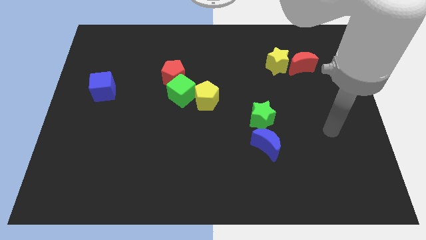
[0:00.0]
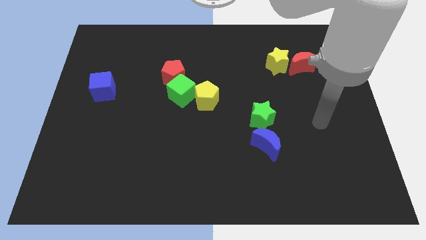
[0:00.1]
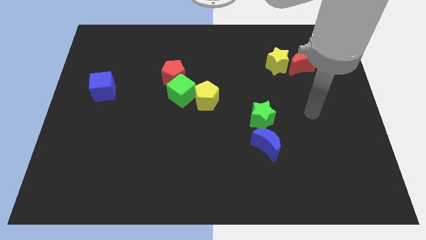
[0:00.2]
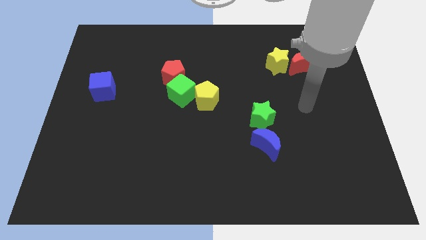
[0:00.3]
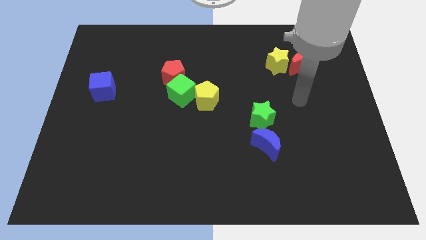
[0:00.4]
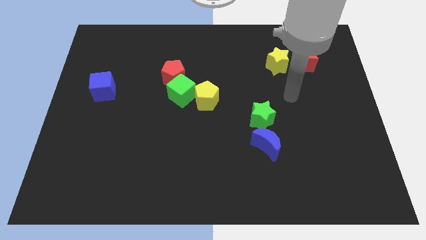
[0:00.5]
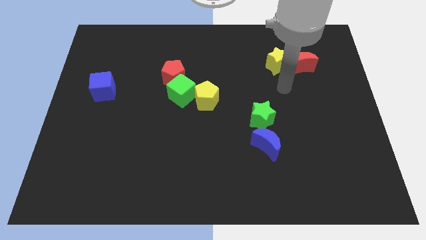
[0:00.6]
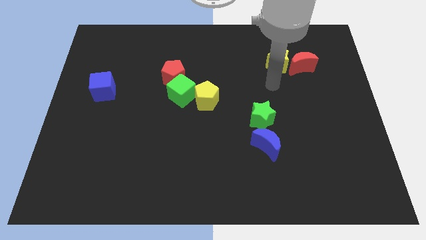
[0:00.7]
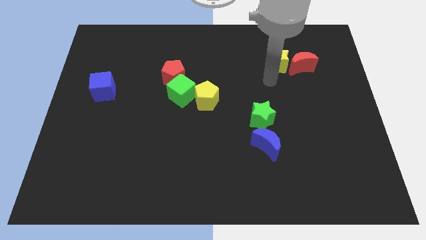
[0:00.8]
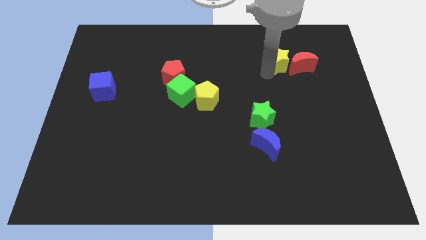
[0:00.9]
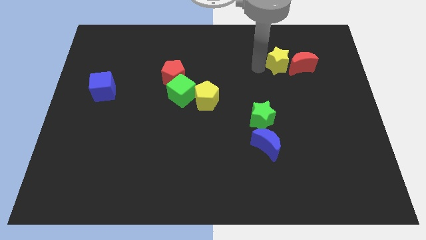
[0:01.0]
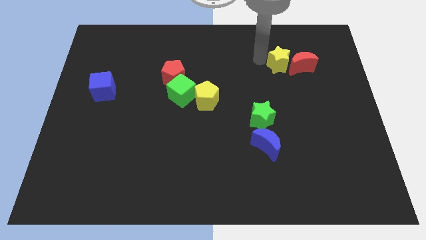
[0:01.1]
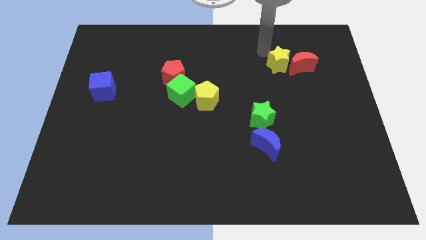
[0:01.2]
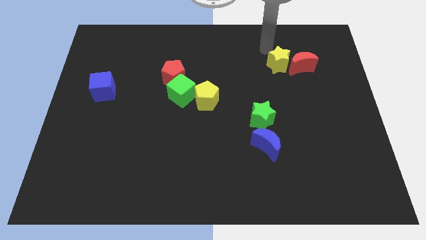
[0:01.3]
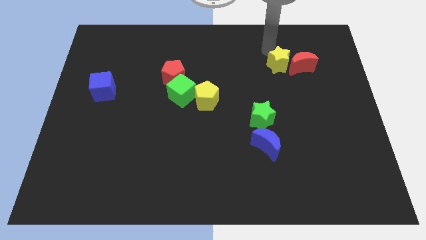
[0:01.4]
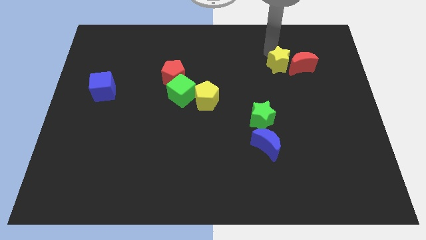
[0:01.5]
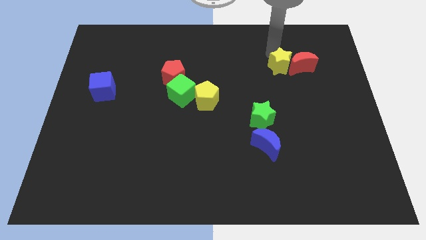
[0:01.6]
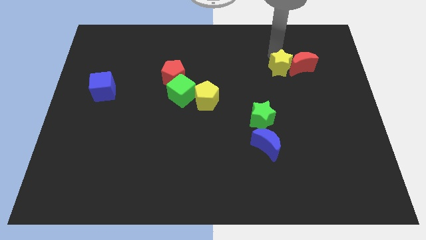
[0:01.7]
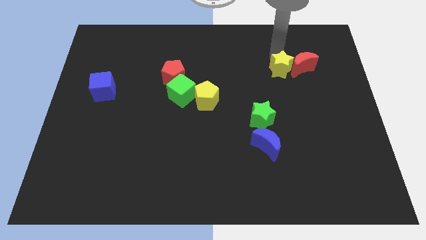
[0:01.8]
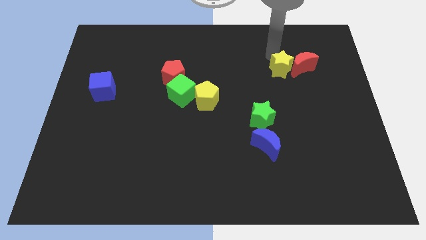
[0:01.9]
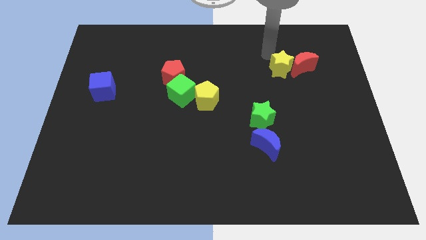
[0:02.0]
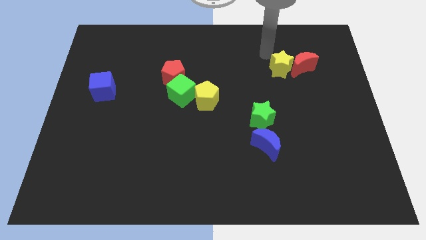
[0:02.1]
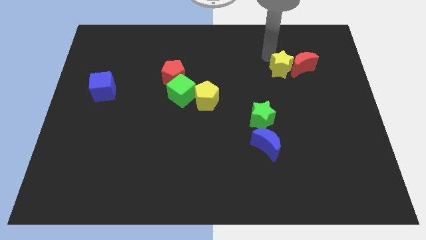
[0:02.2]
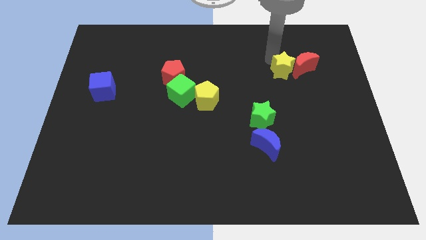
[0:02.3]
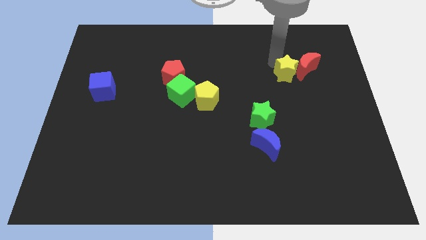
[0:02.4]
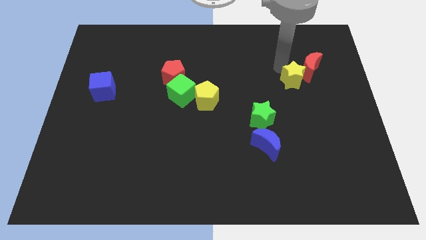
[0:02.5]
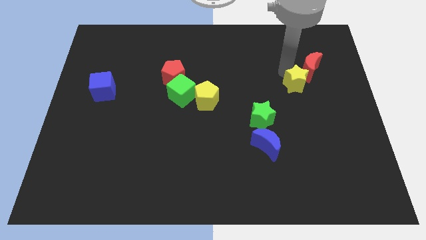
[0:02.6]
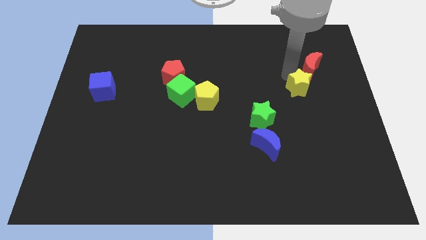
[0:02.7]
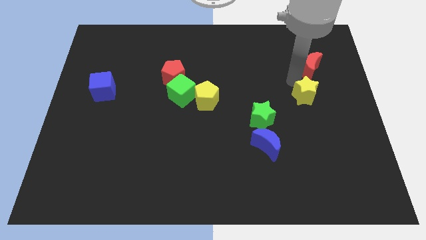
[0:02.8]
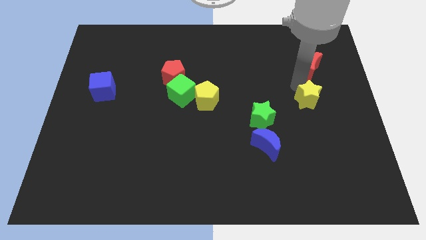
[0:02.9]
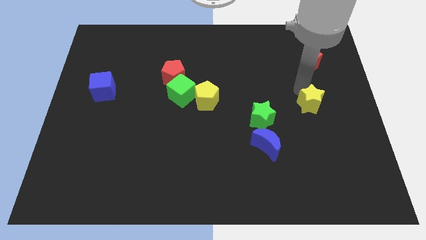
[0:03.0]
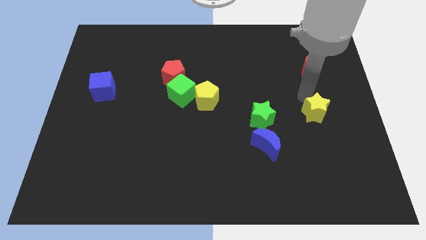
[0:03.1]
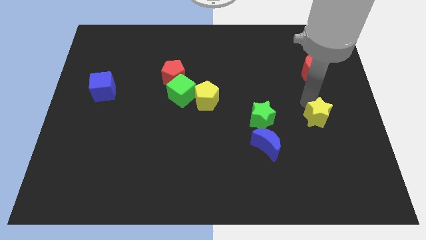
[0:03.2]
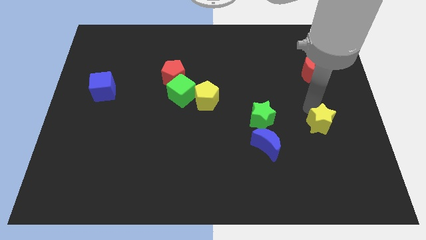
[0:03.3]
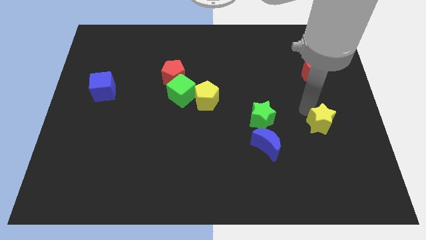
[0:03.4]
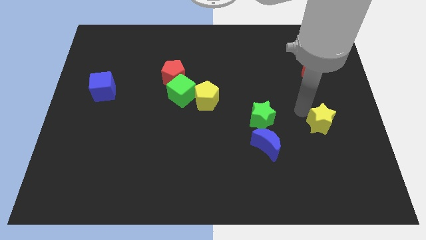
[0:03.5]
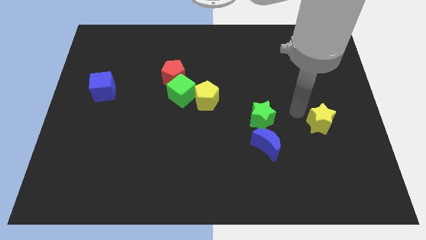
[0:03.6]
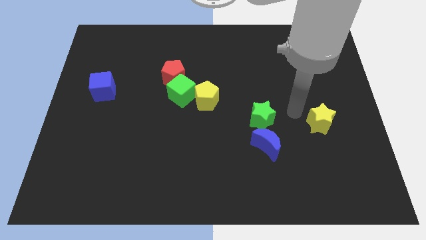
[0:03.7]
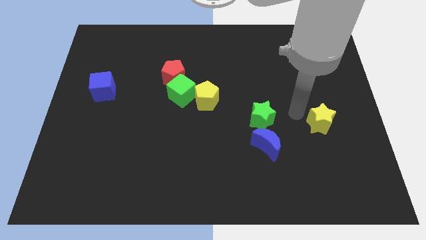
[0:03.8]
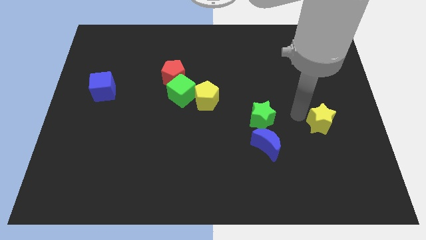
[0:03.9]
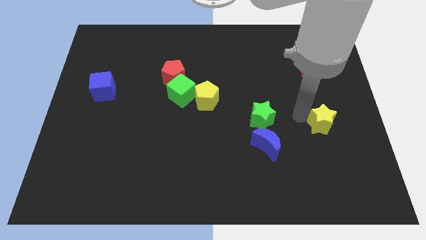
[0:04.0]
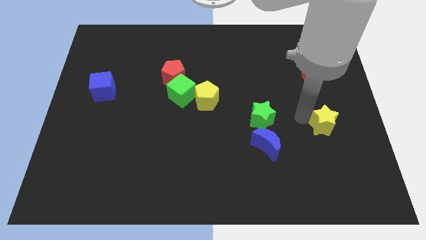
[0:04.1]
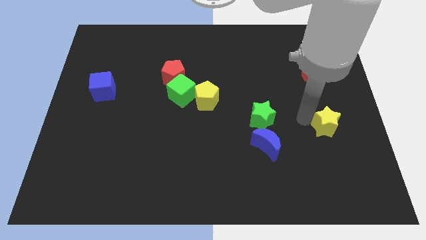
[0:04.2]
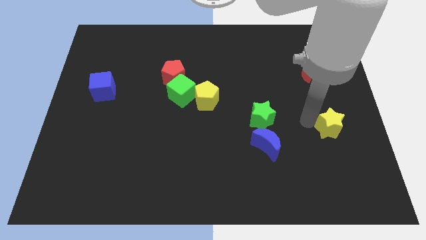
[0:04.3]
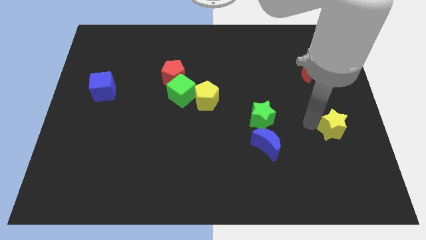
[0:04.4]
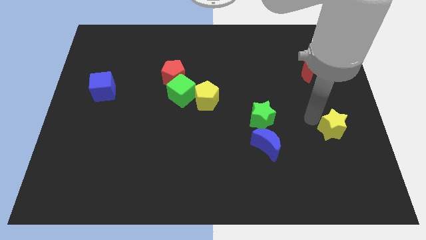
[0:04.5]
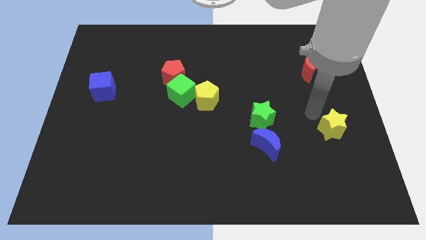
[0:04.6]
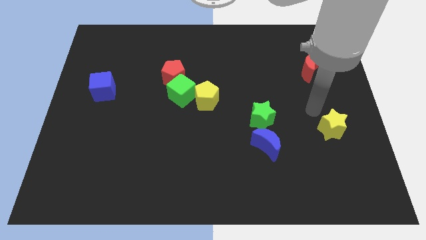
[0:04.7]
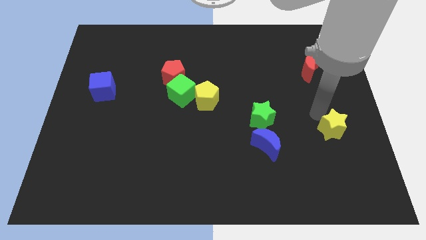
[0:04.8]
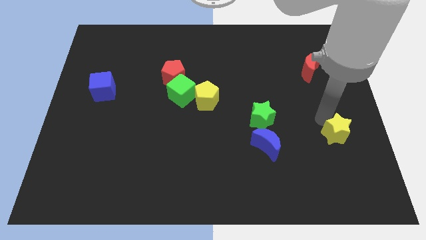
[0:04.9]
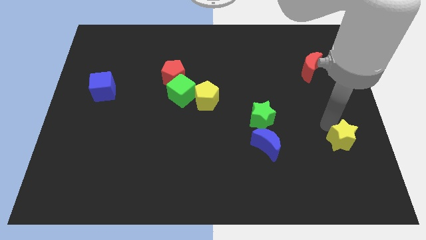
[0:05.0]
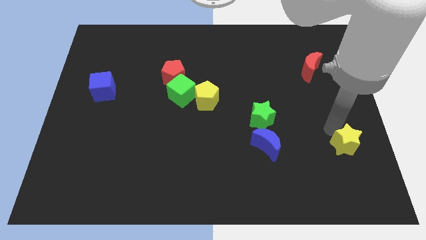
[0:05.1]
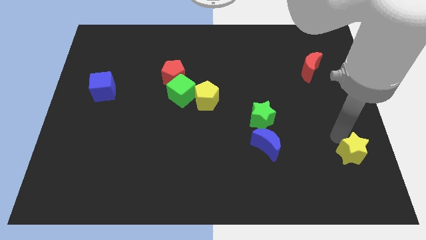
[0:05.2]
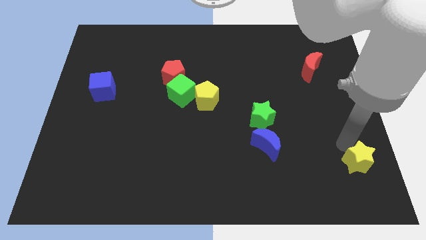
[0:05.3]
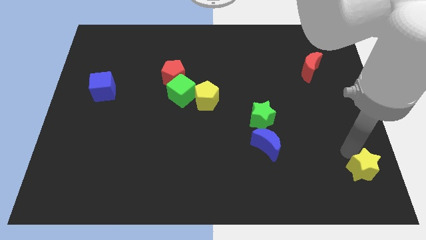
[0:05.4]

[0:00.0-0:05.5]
put the yellow star to the bottom right of the board

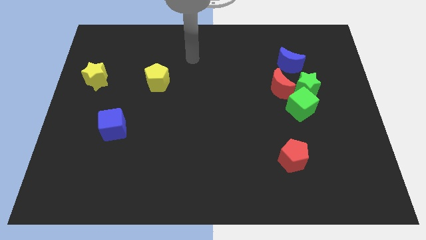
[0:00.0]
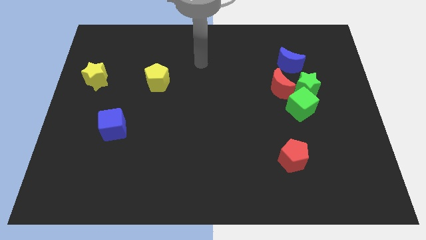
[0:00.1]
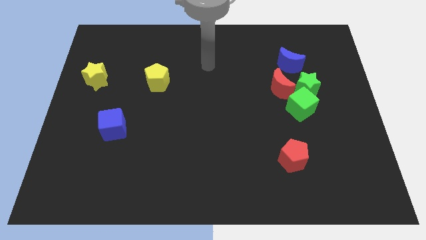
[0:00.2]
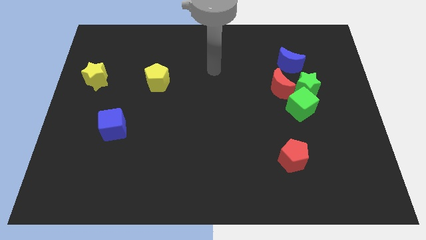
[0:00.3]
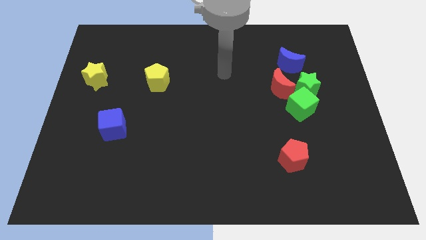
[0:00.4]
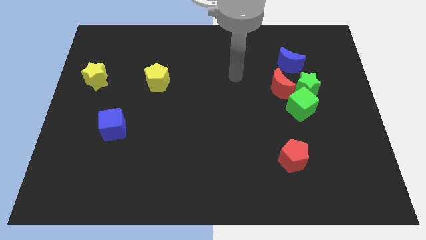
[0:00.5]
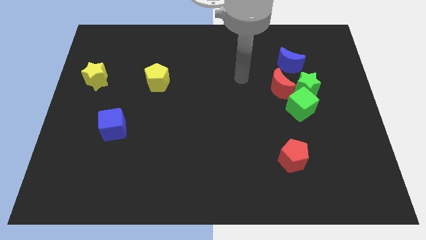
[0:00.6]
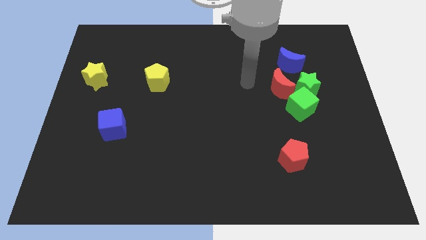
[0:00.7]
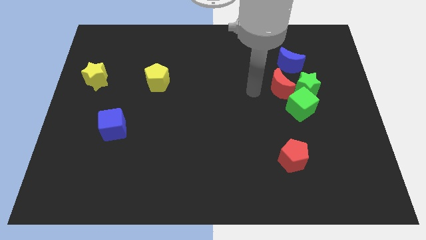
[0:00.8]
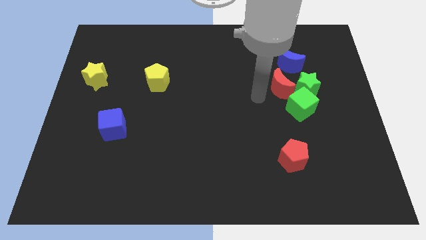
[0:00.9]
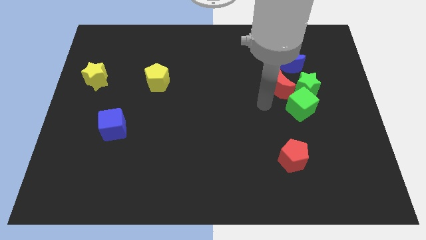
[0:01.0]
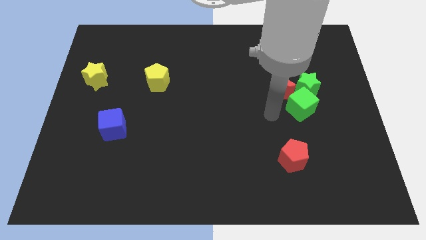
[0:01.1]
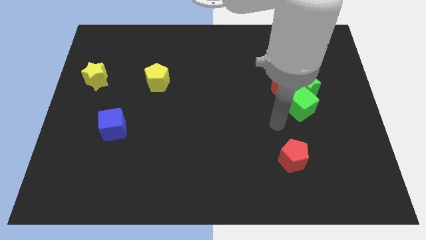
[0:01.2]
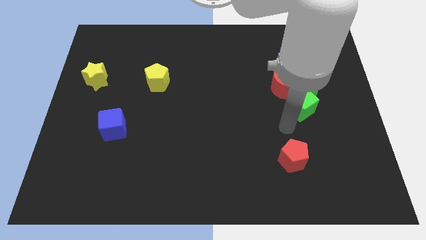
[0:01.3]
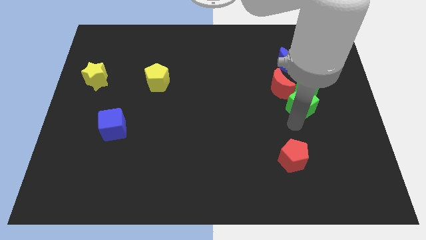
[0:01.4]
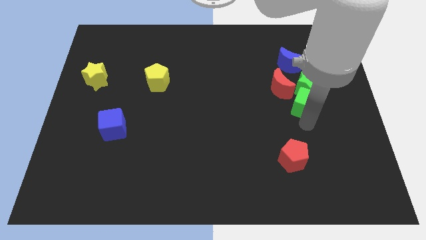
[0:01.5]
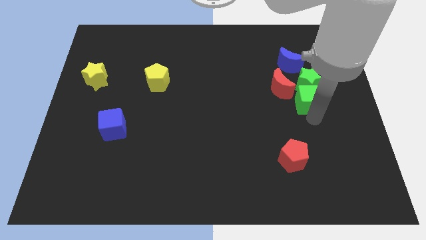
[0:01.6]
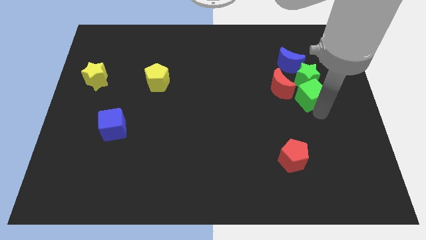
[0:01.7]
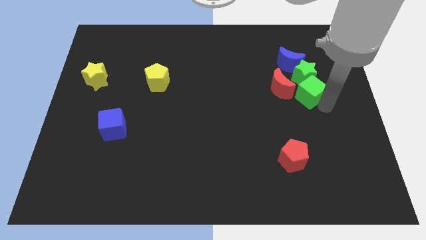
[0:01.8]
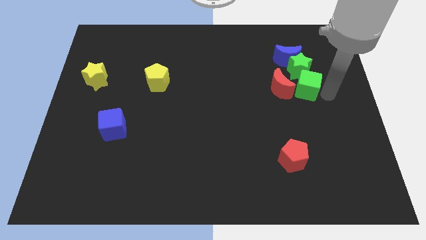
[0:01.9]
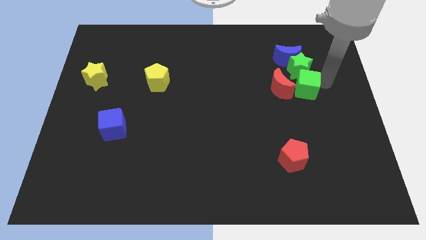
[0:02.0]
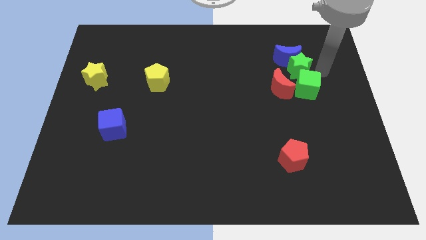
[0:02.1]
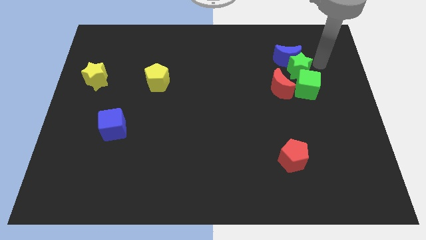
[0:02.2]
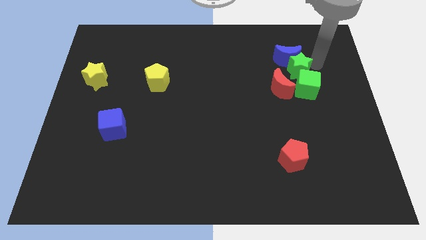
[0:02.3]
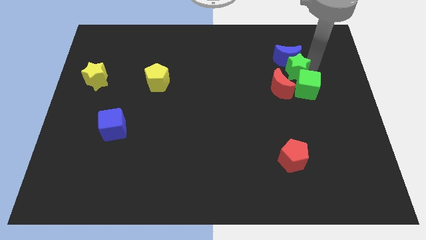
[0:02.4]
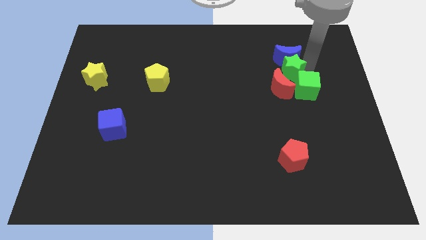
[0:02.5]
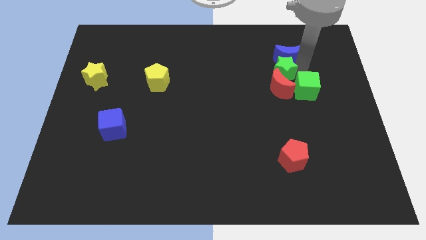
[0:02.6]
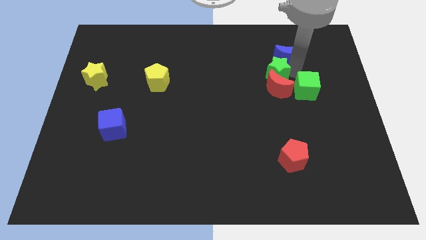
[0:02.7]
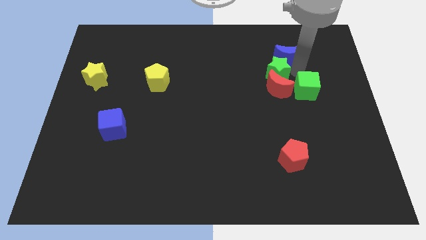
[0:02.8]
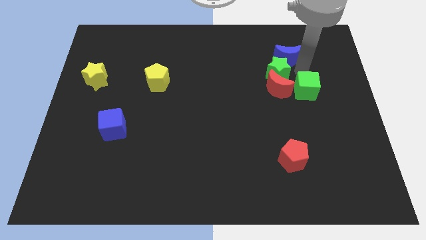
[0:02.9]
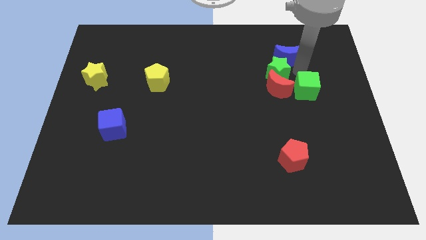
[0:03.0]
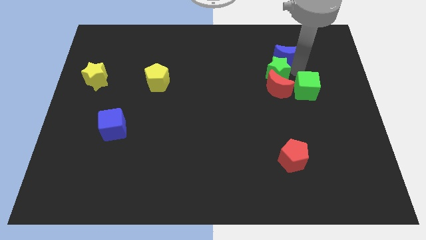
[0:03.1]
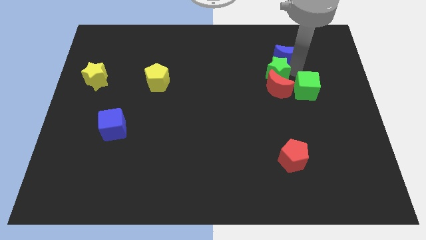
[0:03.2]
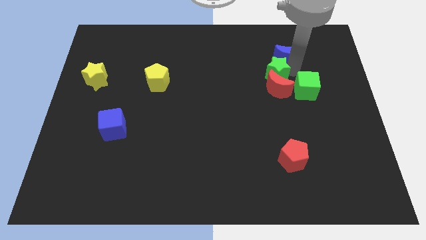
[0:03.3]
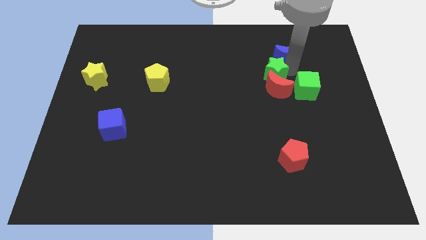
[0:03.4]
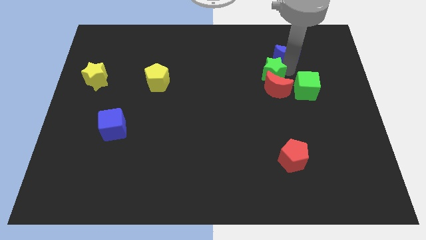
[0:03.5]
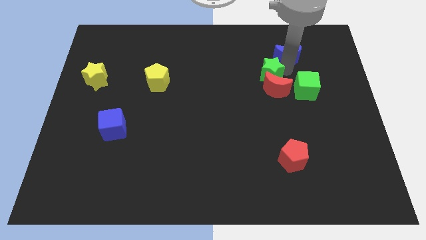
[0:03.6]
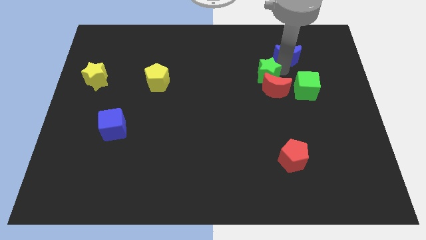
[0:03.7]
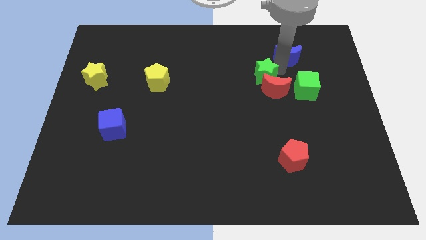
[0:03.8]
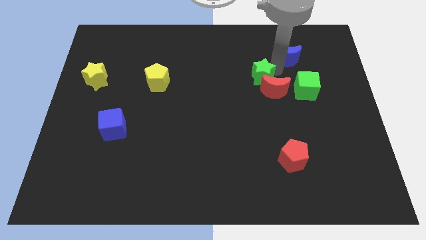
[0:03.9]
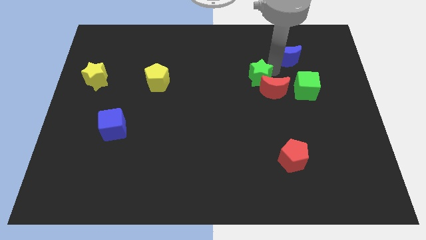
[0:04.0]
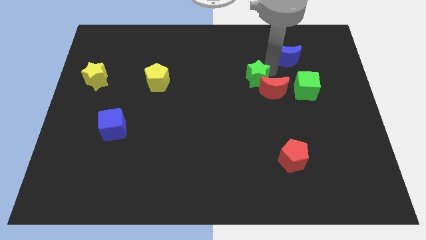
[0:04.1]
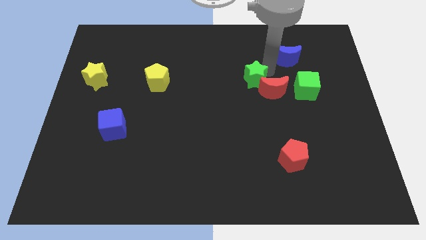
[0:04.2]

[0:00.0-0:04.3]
put the green star to the center of the board
